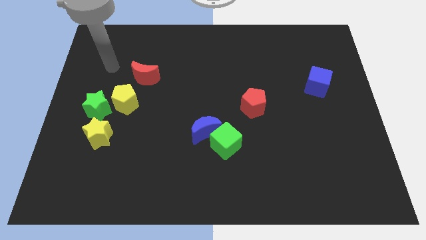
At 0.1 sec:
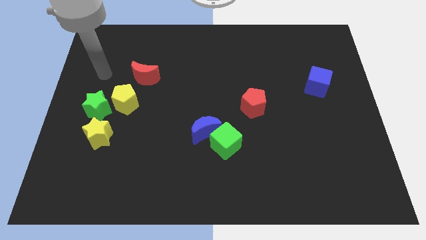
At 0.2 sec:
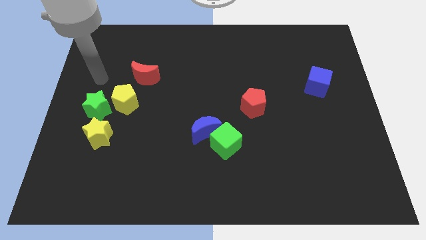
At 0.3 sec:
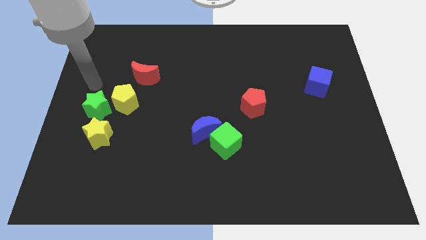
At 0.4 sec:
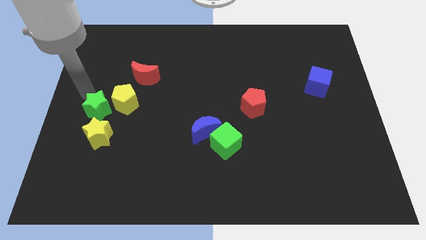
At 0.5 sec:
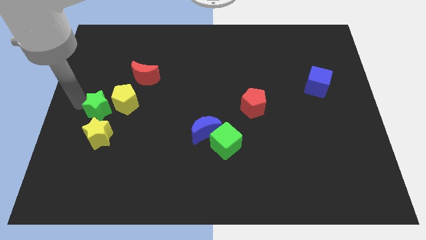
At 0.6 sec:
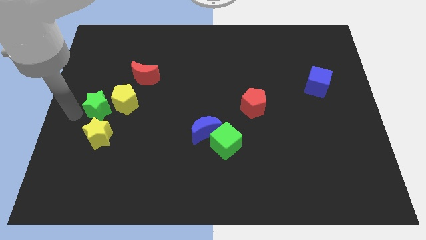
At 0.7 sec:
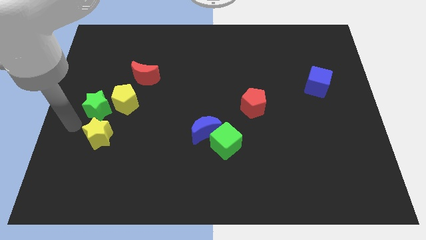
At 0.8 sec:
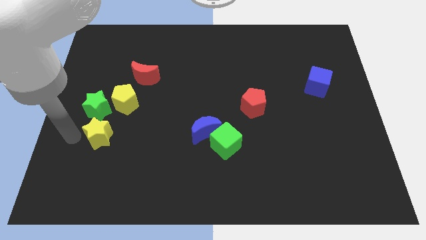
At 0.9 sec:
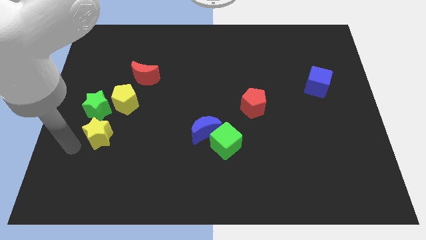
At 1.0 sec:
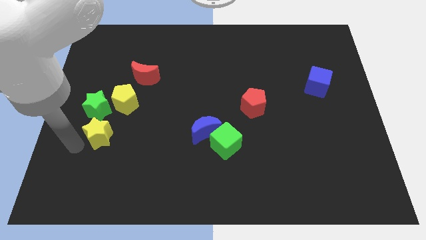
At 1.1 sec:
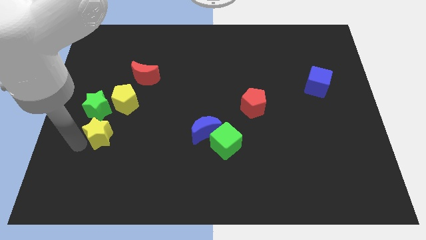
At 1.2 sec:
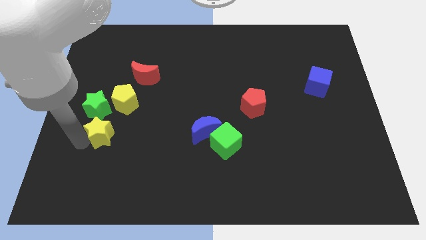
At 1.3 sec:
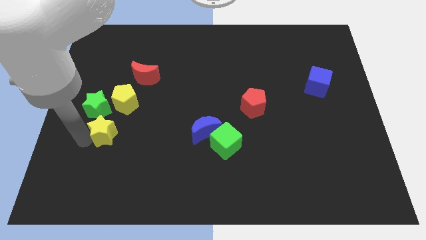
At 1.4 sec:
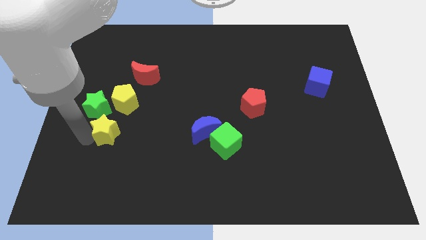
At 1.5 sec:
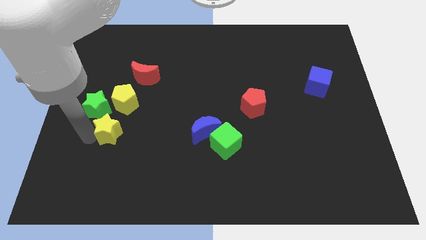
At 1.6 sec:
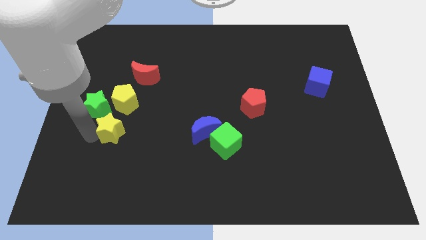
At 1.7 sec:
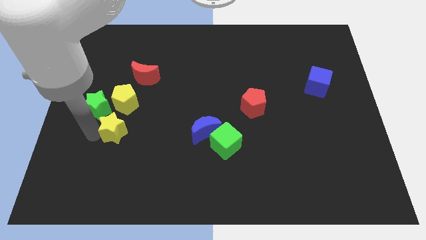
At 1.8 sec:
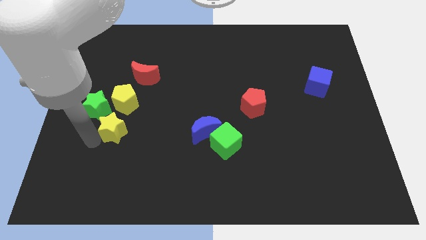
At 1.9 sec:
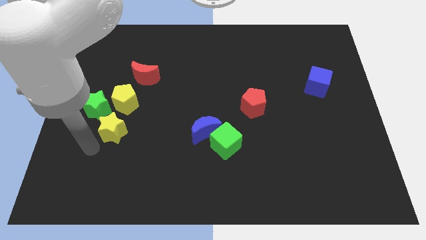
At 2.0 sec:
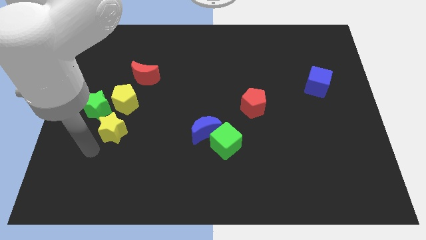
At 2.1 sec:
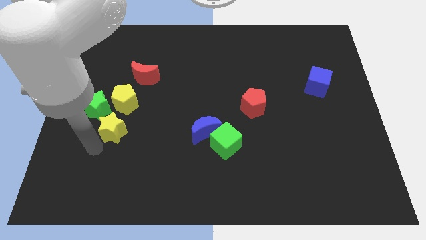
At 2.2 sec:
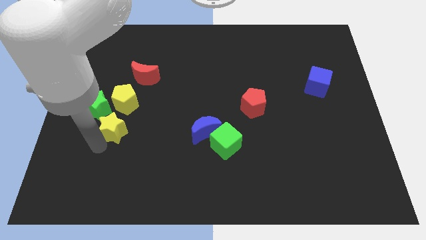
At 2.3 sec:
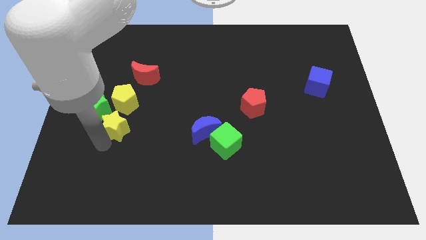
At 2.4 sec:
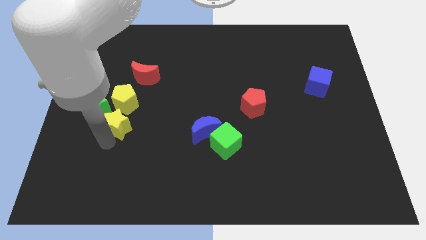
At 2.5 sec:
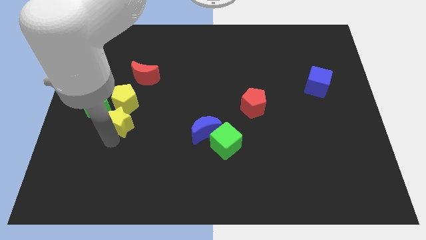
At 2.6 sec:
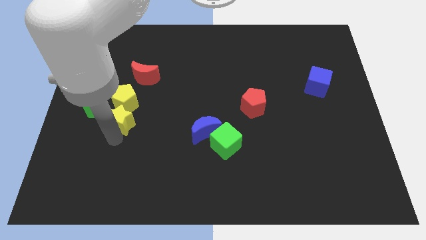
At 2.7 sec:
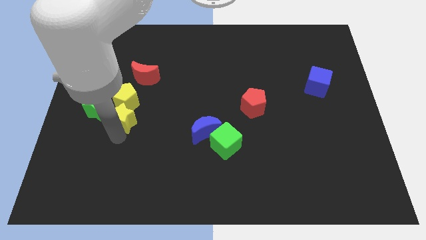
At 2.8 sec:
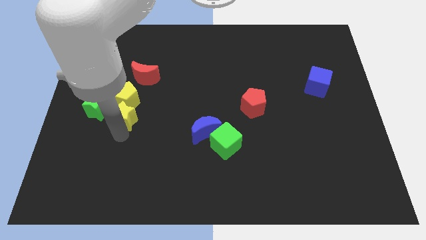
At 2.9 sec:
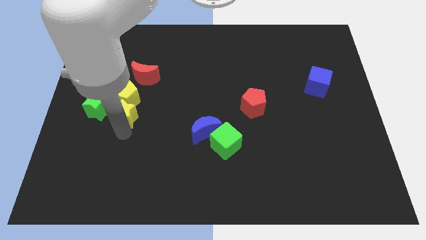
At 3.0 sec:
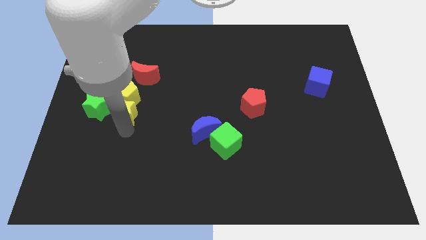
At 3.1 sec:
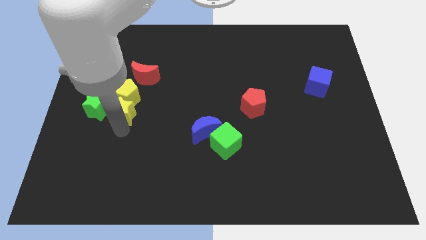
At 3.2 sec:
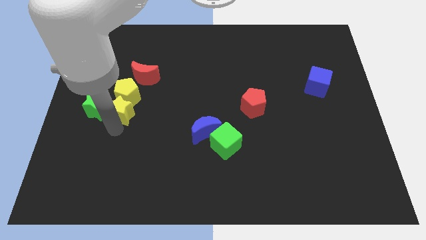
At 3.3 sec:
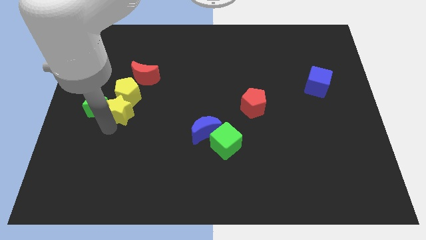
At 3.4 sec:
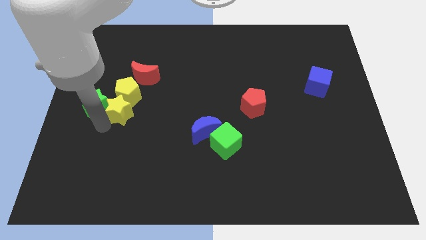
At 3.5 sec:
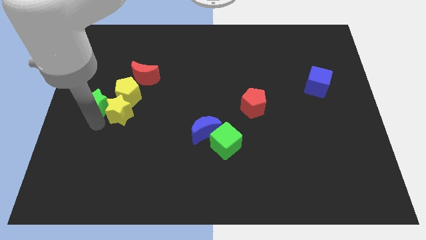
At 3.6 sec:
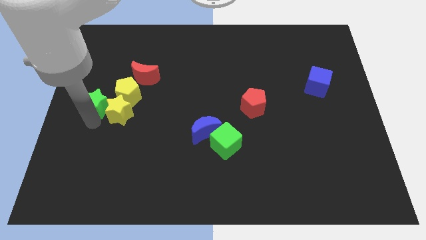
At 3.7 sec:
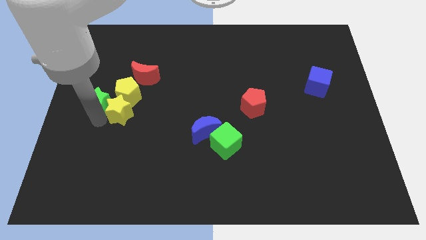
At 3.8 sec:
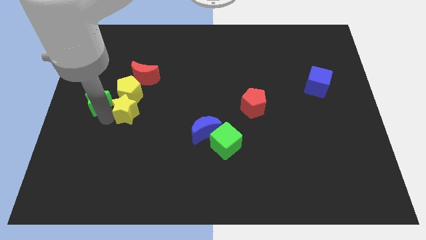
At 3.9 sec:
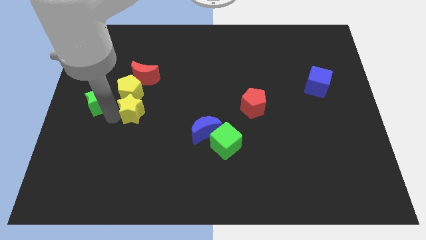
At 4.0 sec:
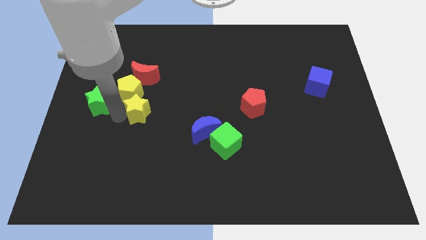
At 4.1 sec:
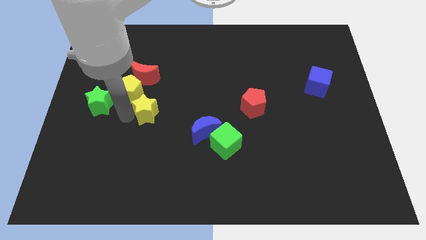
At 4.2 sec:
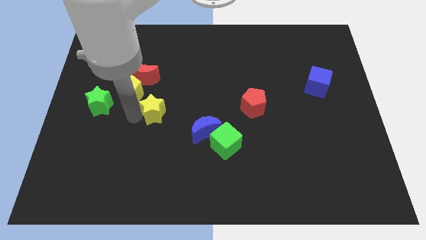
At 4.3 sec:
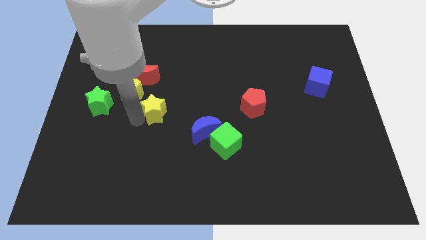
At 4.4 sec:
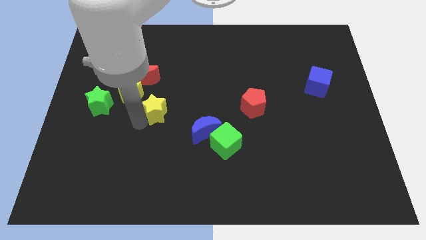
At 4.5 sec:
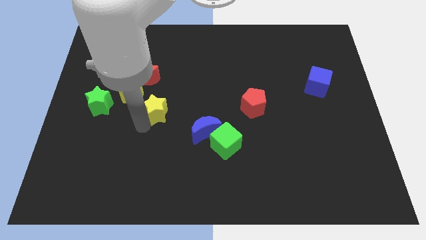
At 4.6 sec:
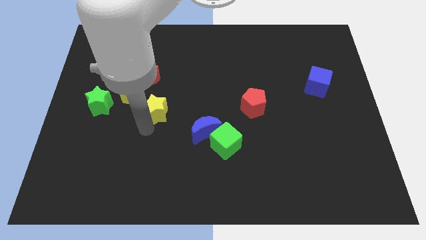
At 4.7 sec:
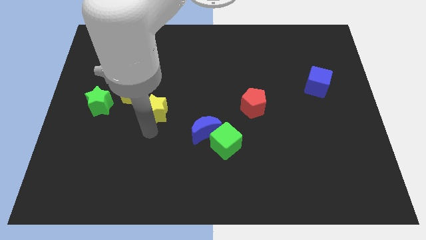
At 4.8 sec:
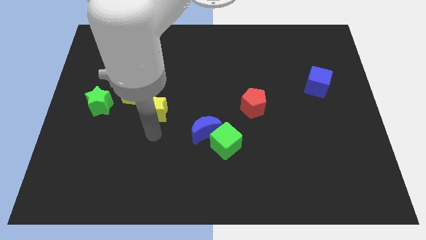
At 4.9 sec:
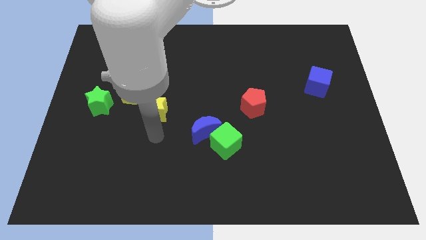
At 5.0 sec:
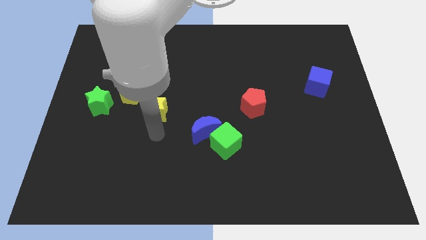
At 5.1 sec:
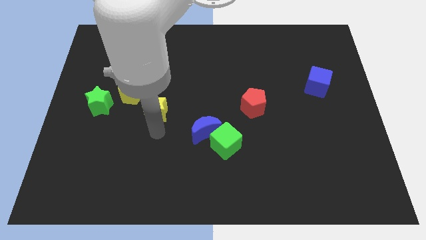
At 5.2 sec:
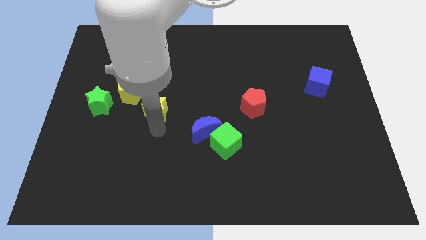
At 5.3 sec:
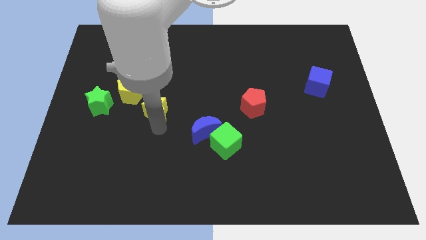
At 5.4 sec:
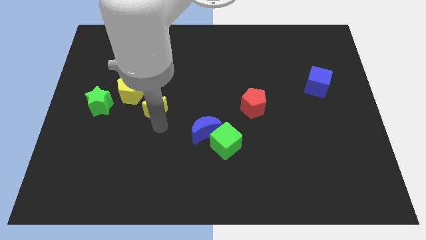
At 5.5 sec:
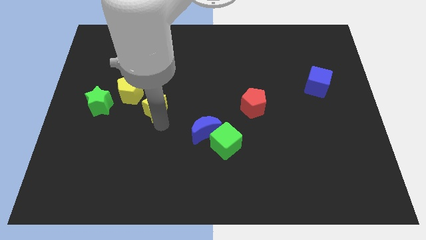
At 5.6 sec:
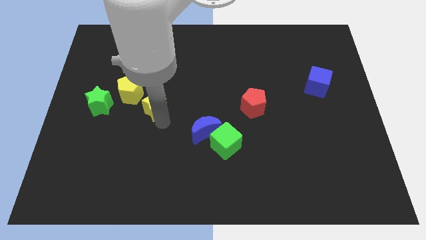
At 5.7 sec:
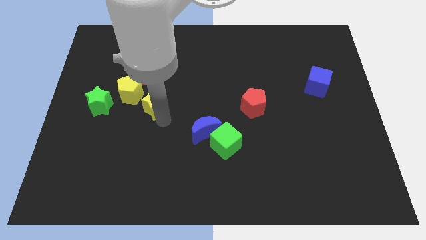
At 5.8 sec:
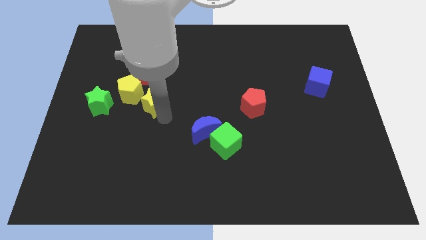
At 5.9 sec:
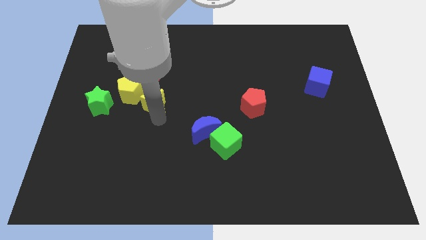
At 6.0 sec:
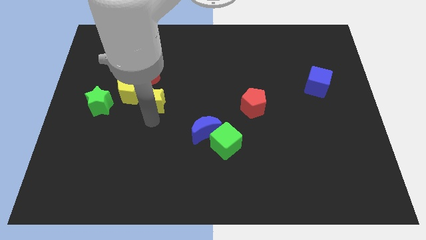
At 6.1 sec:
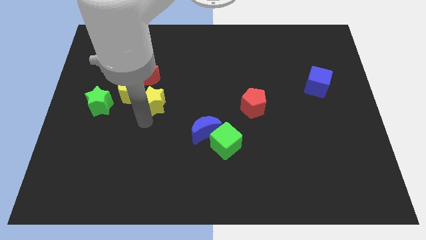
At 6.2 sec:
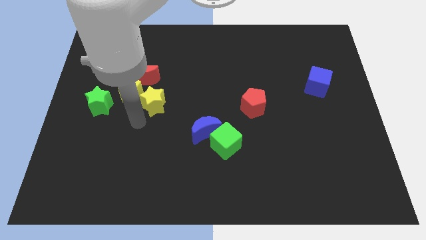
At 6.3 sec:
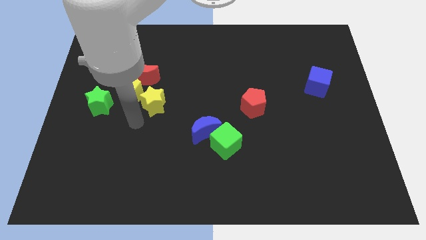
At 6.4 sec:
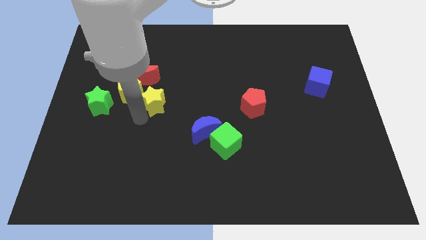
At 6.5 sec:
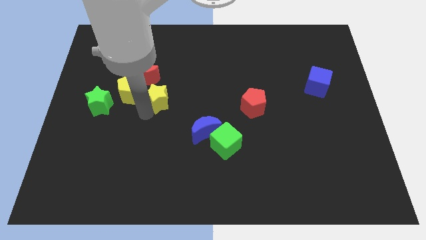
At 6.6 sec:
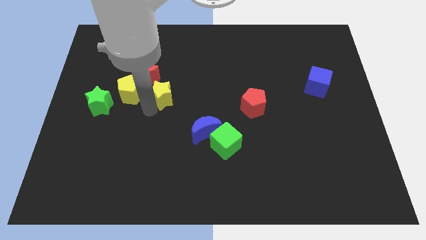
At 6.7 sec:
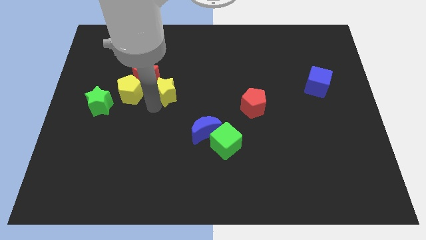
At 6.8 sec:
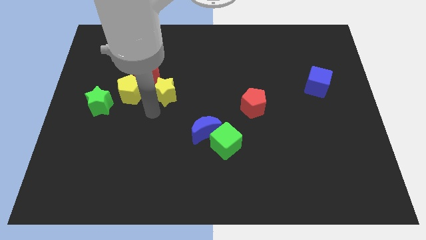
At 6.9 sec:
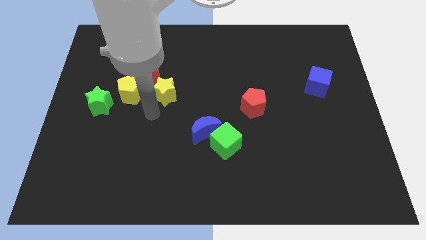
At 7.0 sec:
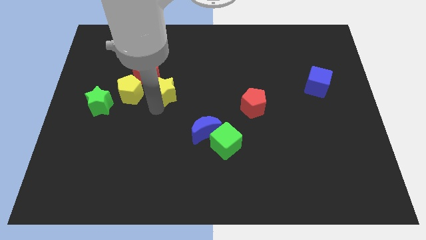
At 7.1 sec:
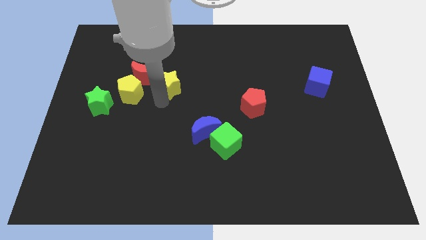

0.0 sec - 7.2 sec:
move the yellow star up and right diagonally

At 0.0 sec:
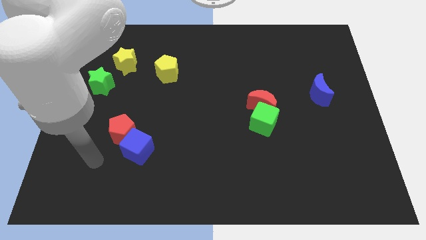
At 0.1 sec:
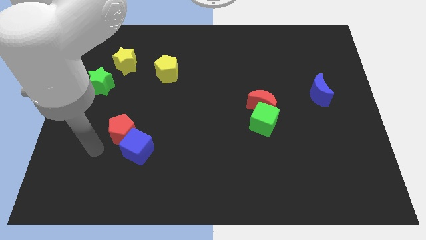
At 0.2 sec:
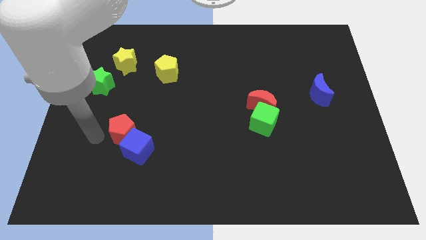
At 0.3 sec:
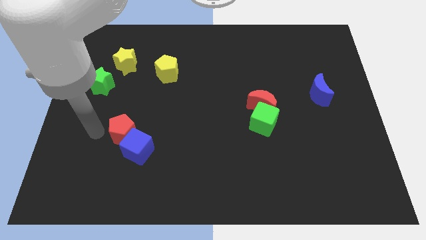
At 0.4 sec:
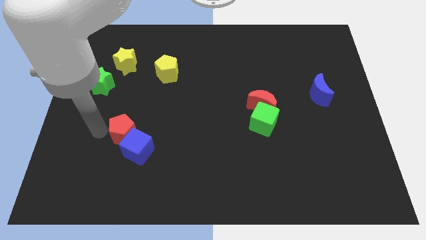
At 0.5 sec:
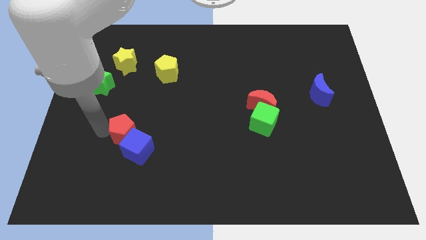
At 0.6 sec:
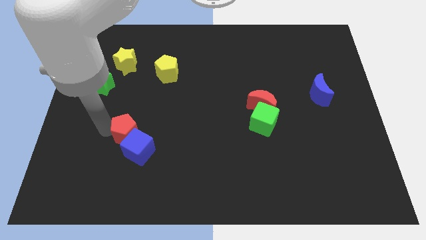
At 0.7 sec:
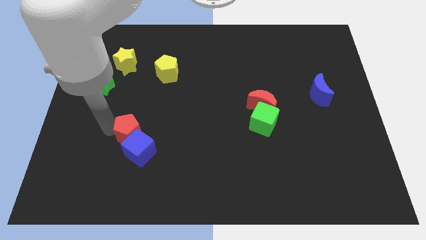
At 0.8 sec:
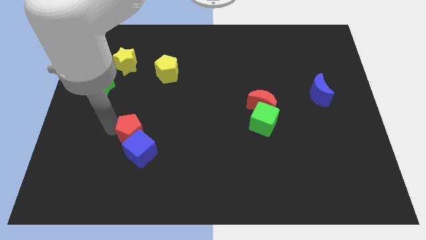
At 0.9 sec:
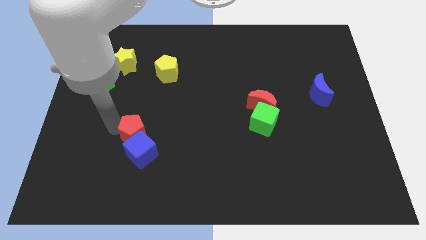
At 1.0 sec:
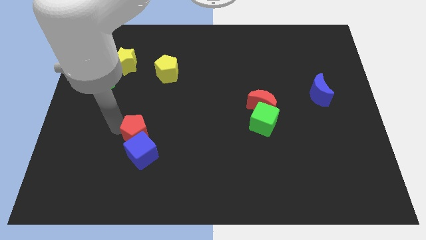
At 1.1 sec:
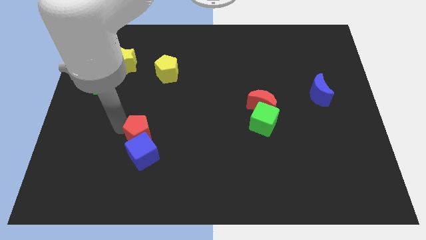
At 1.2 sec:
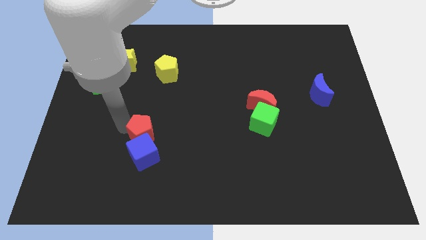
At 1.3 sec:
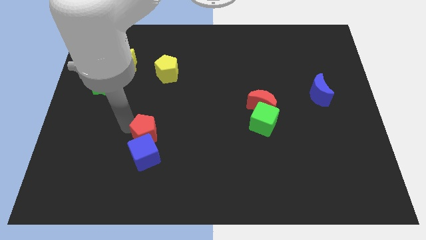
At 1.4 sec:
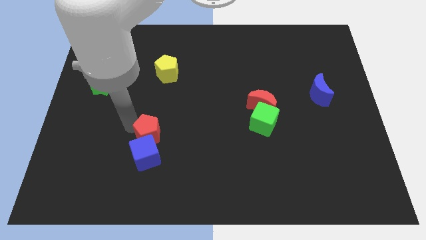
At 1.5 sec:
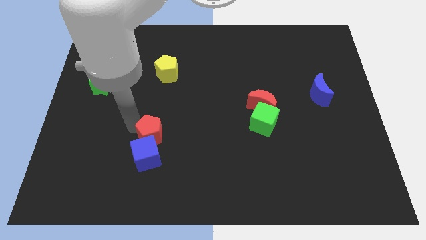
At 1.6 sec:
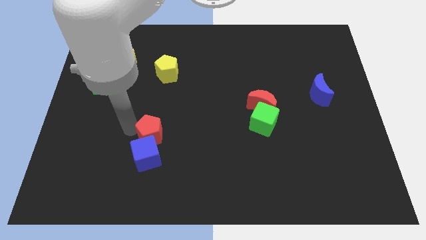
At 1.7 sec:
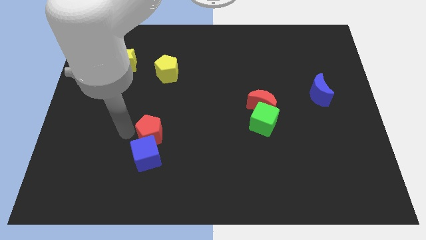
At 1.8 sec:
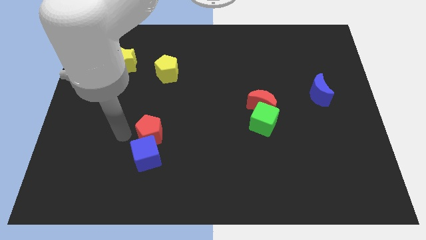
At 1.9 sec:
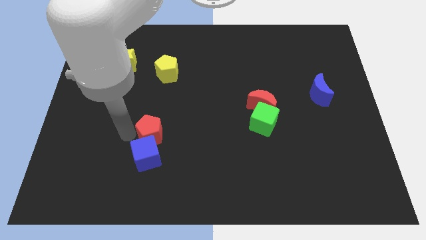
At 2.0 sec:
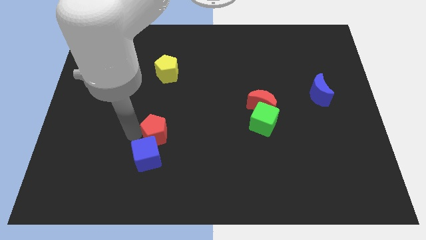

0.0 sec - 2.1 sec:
slightly push the red pentagon right
